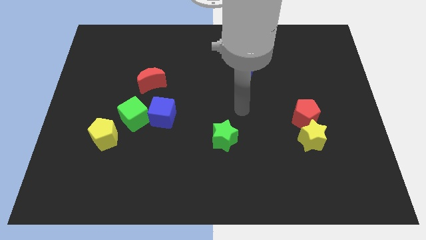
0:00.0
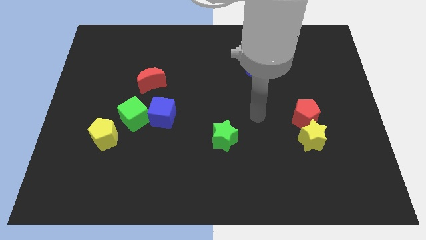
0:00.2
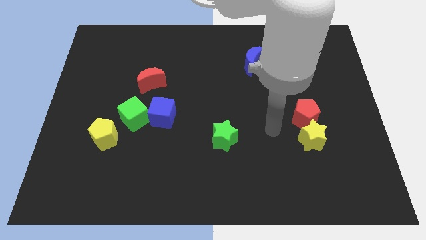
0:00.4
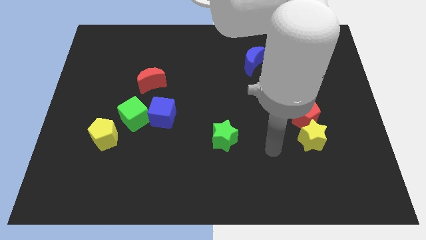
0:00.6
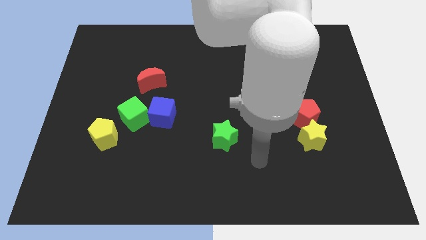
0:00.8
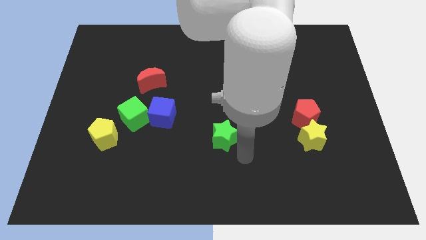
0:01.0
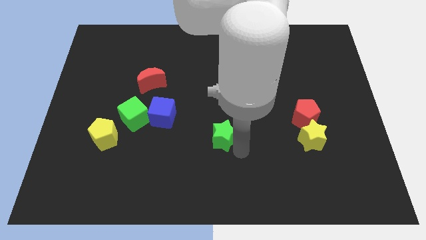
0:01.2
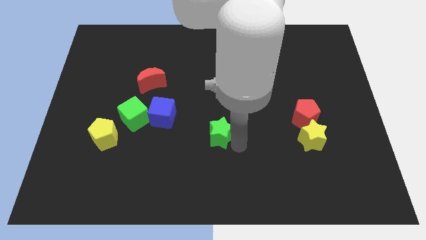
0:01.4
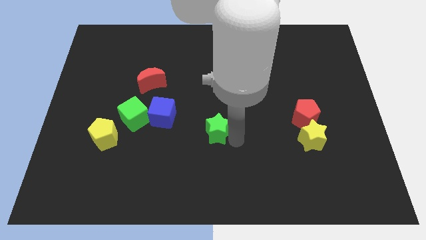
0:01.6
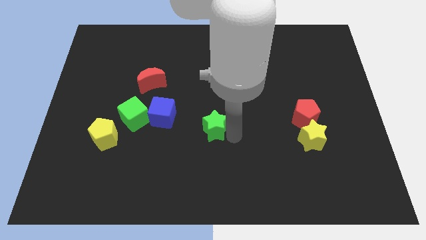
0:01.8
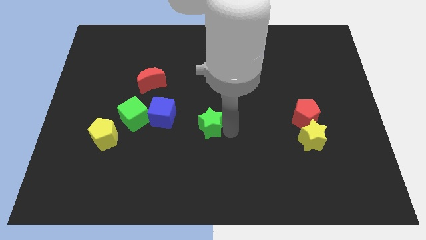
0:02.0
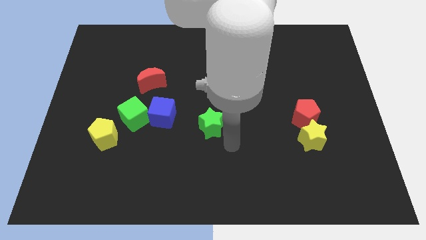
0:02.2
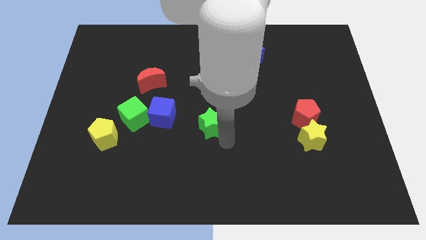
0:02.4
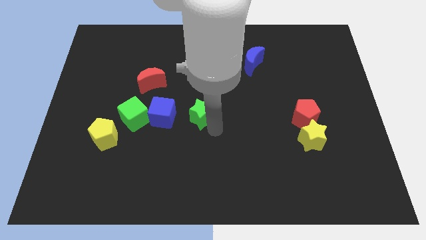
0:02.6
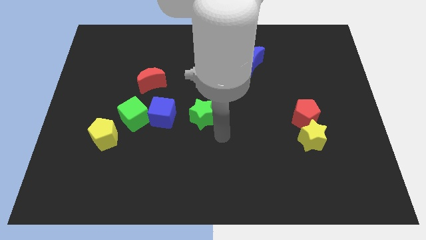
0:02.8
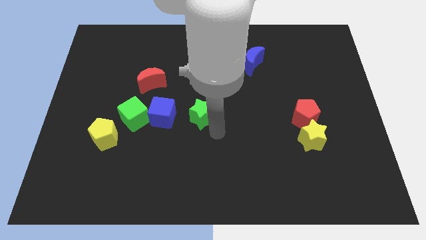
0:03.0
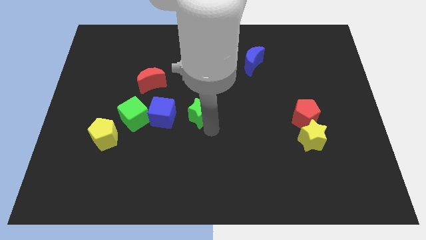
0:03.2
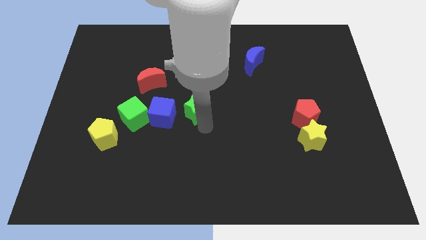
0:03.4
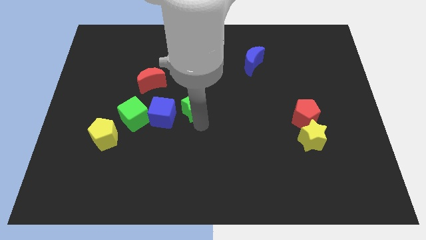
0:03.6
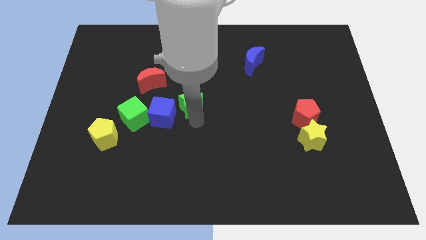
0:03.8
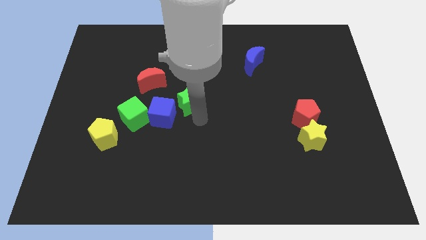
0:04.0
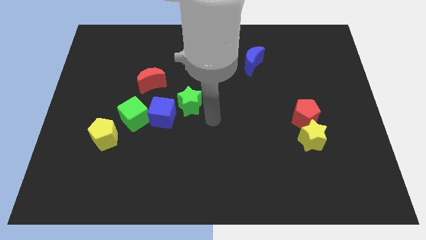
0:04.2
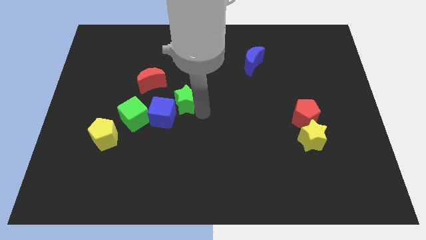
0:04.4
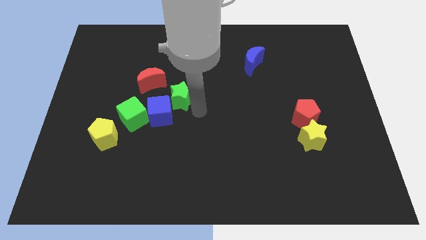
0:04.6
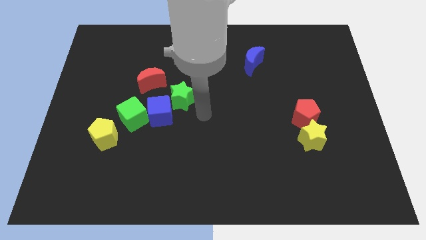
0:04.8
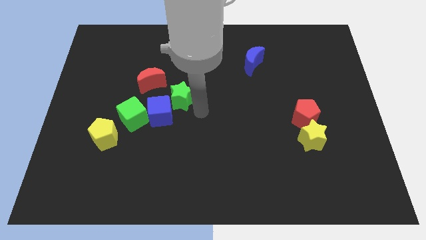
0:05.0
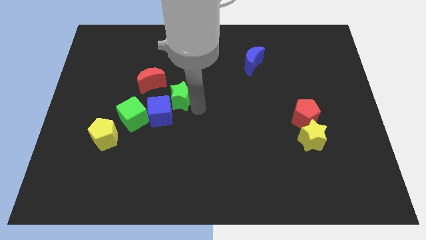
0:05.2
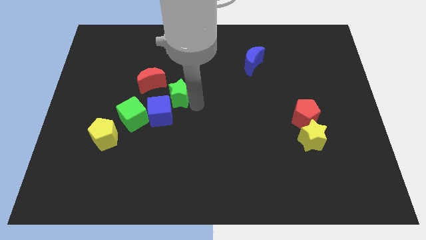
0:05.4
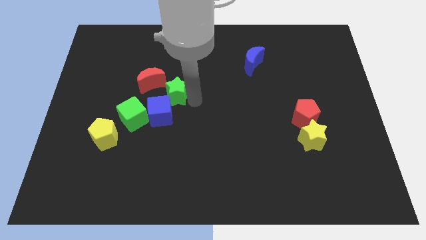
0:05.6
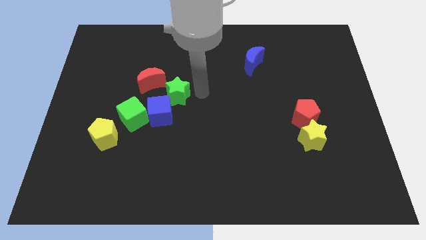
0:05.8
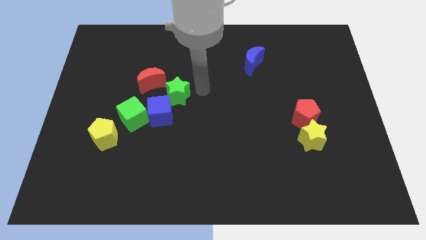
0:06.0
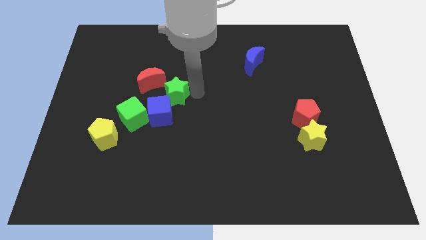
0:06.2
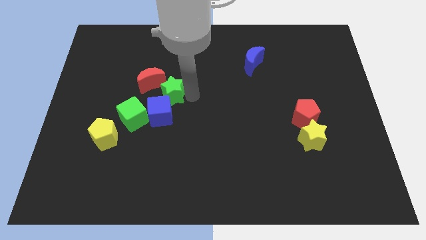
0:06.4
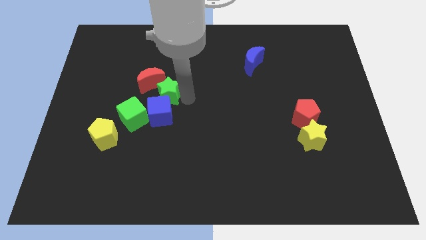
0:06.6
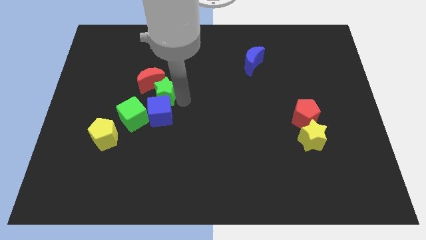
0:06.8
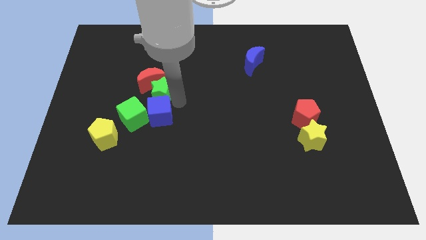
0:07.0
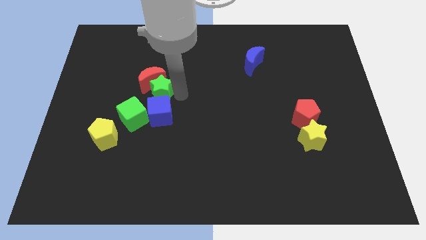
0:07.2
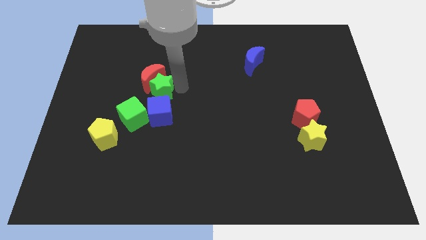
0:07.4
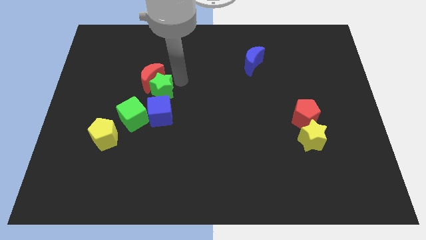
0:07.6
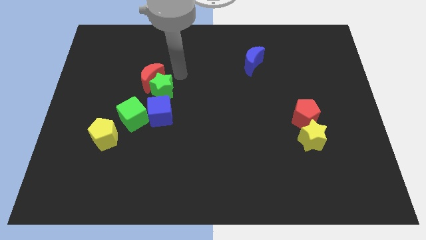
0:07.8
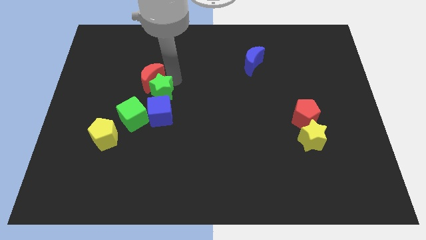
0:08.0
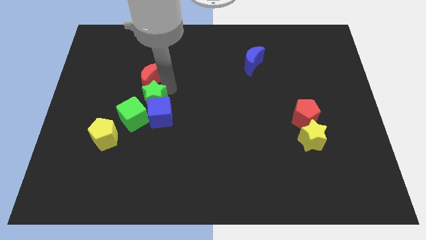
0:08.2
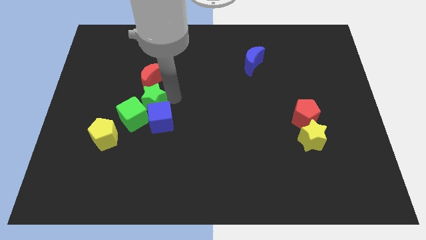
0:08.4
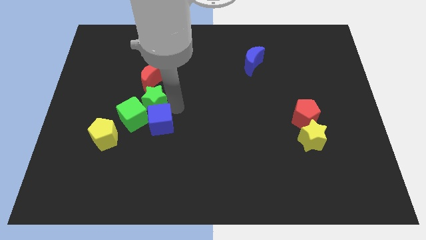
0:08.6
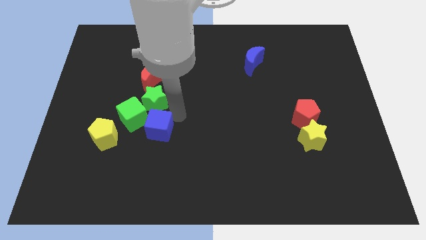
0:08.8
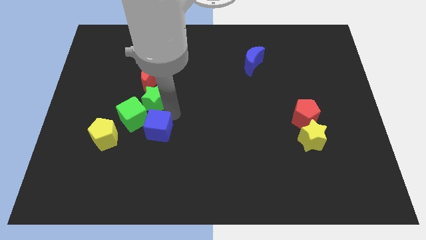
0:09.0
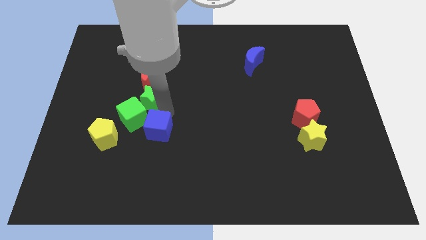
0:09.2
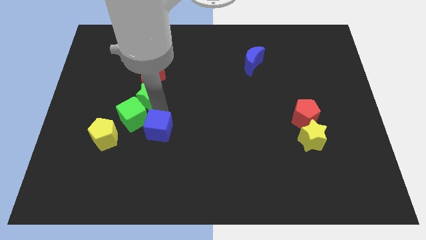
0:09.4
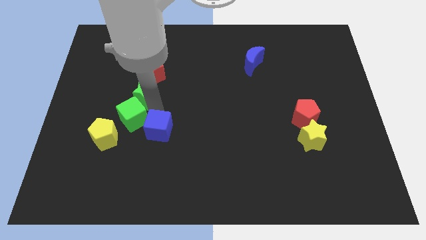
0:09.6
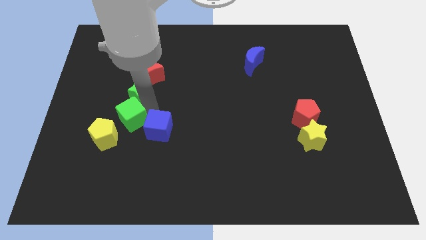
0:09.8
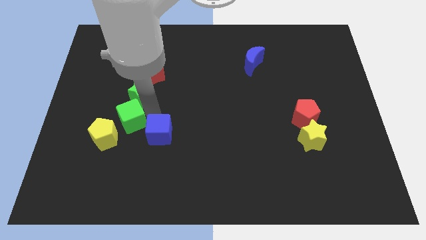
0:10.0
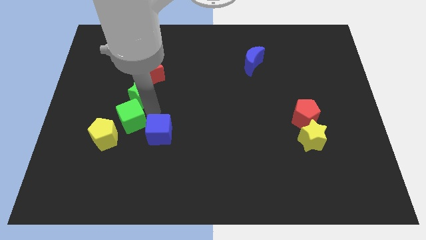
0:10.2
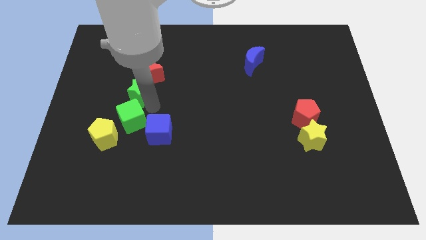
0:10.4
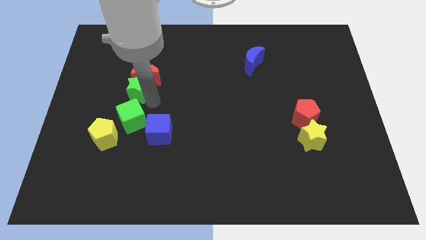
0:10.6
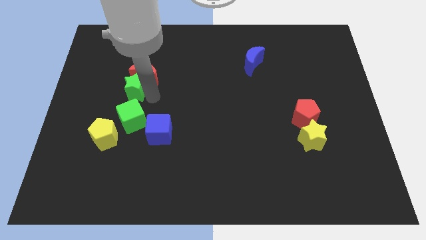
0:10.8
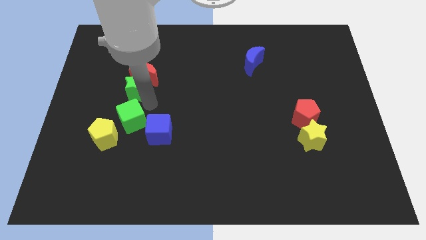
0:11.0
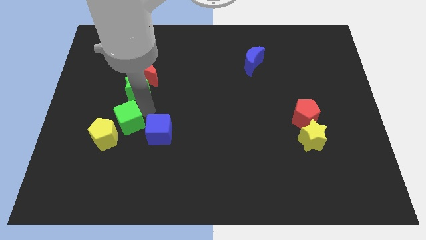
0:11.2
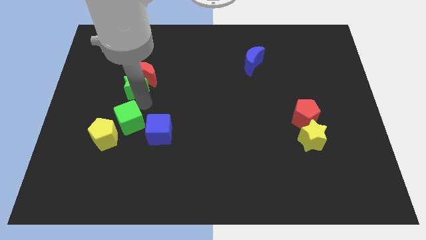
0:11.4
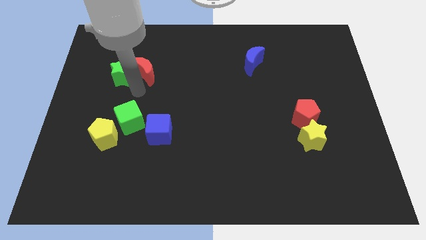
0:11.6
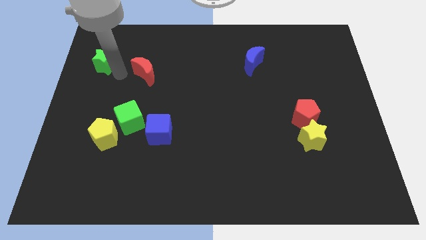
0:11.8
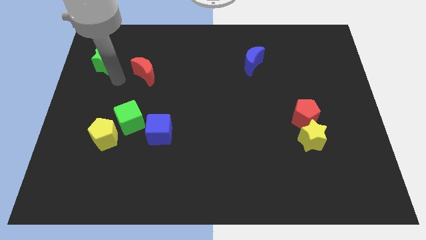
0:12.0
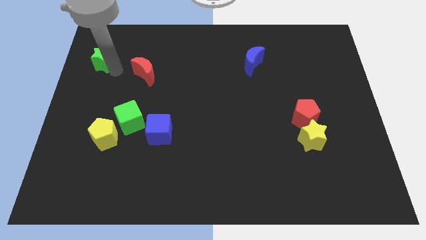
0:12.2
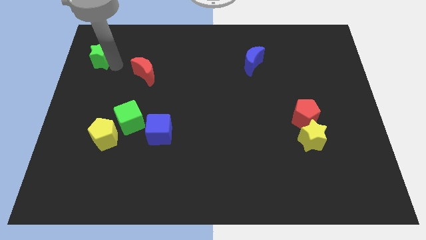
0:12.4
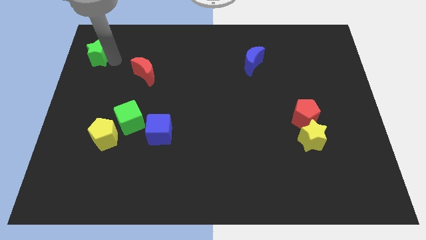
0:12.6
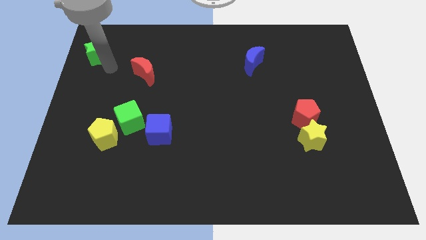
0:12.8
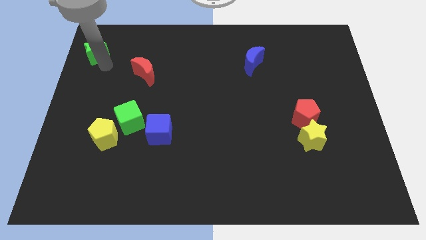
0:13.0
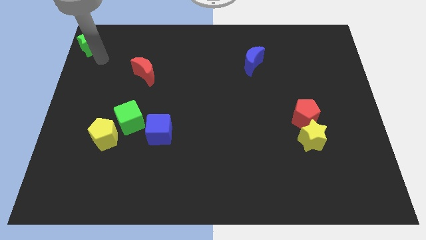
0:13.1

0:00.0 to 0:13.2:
slide the green star to the top left
